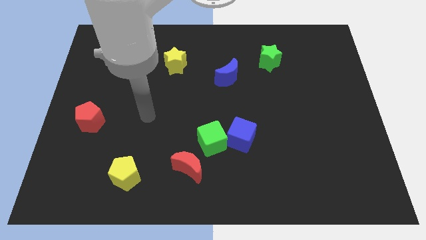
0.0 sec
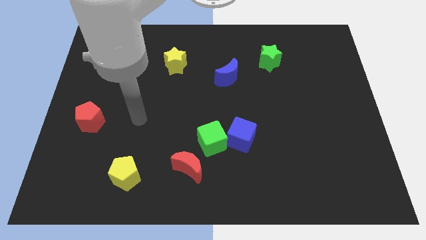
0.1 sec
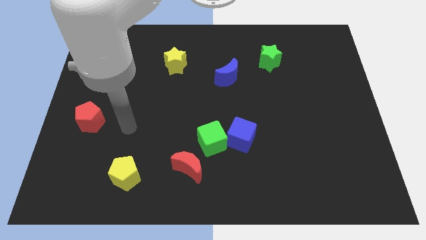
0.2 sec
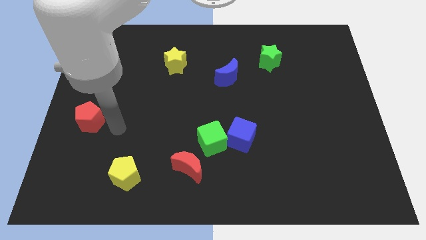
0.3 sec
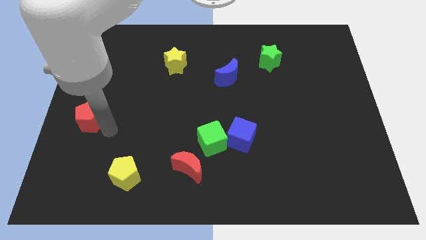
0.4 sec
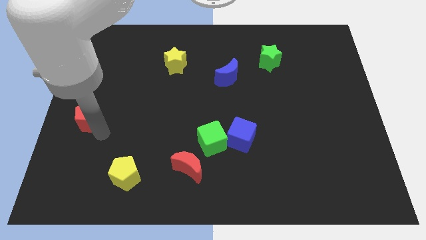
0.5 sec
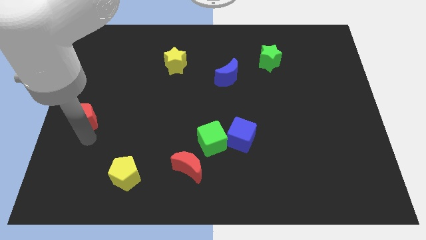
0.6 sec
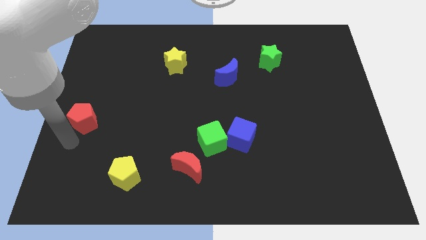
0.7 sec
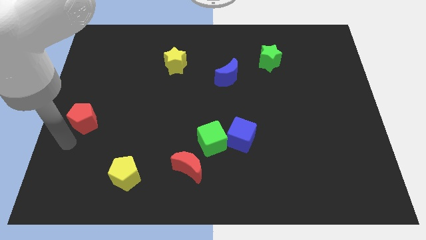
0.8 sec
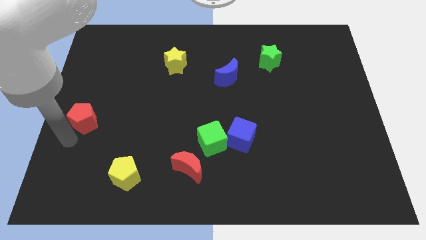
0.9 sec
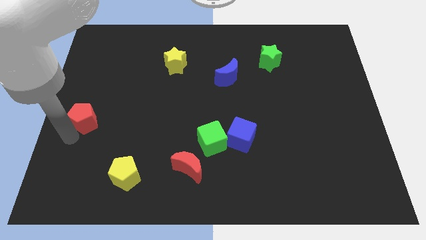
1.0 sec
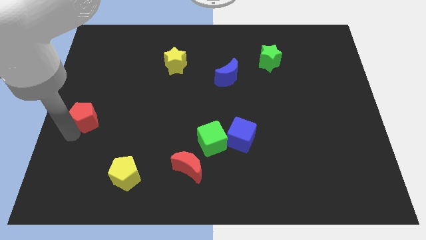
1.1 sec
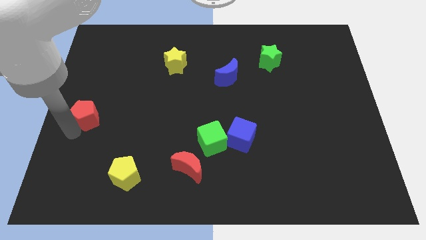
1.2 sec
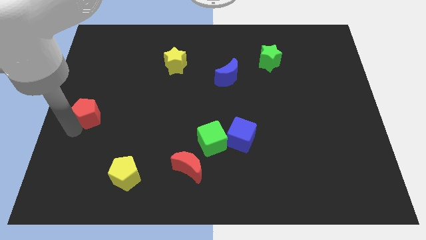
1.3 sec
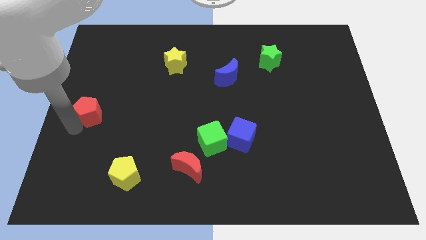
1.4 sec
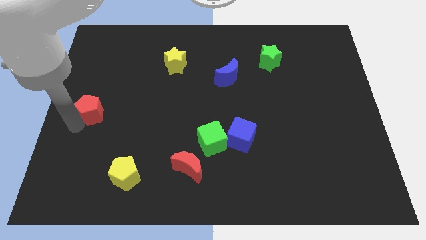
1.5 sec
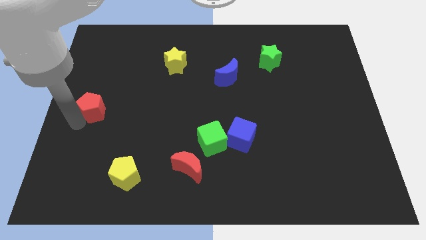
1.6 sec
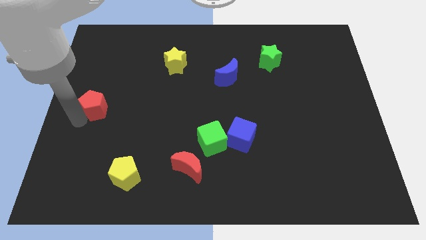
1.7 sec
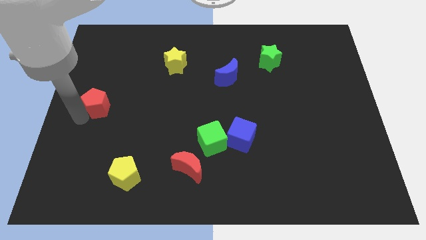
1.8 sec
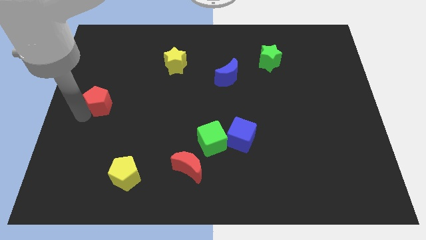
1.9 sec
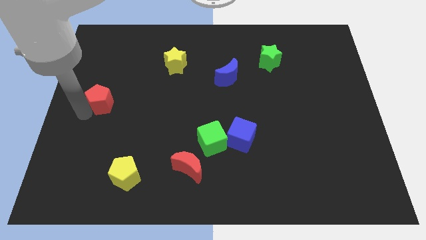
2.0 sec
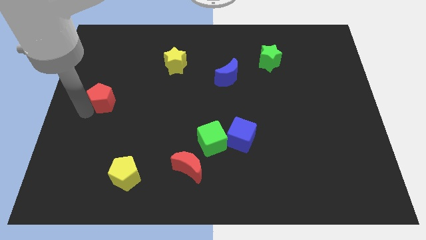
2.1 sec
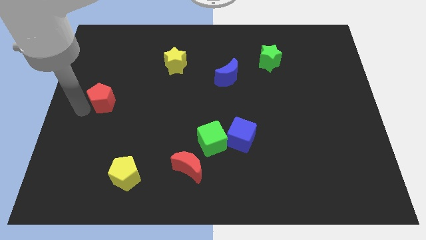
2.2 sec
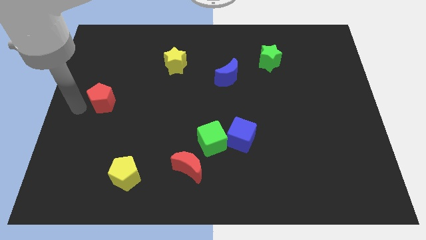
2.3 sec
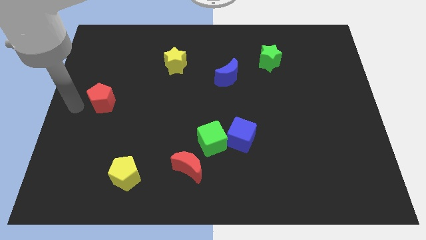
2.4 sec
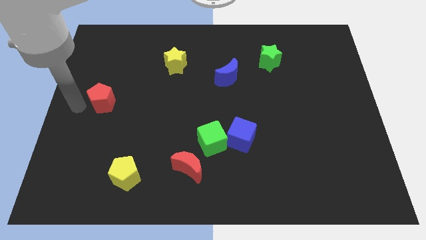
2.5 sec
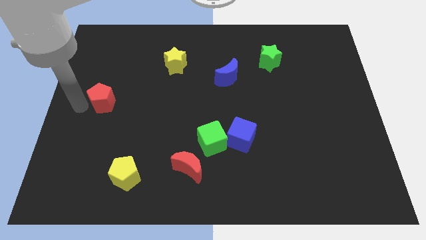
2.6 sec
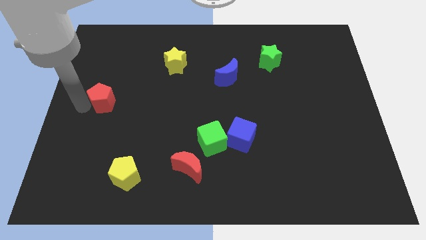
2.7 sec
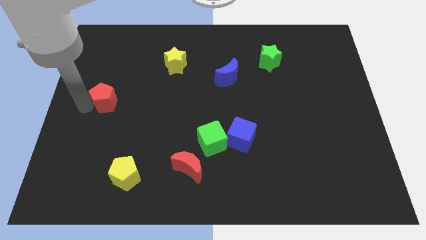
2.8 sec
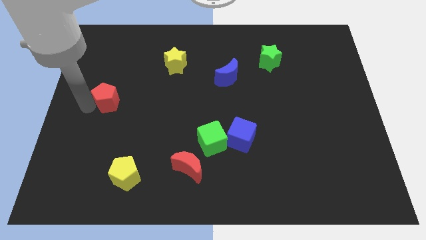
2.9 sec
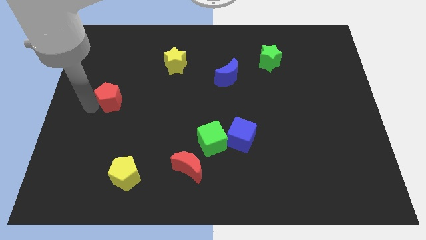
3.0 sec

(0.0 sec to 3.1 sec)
push the red pentagon a bit up and to the right

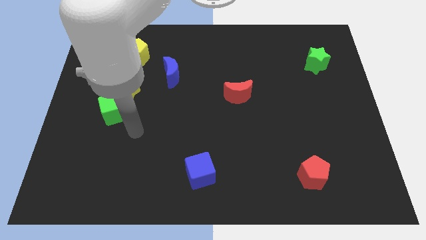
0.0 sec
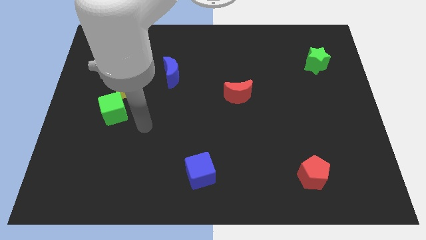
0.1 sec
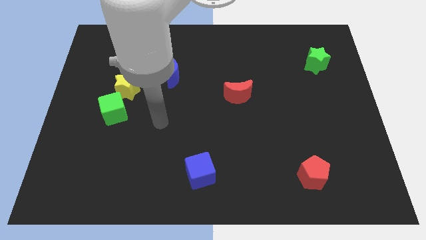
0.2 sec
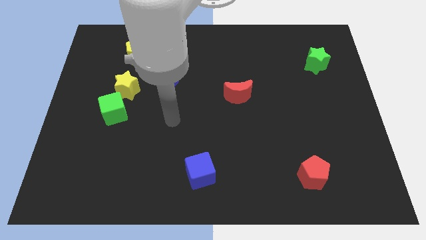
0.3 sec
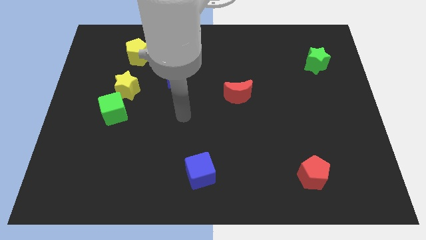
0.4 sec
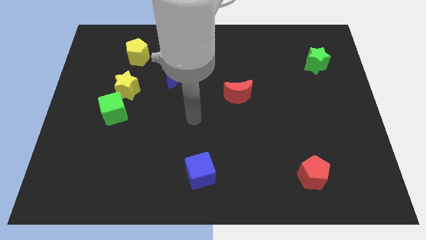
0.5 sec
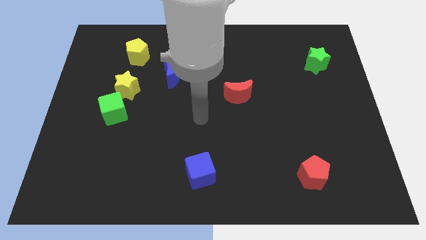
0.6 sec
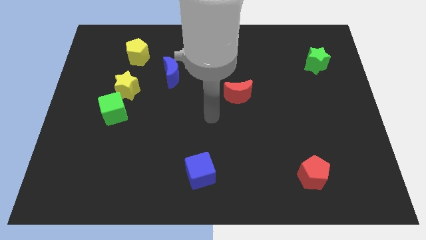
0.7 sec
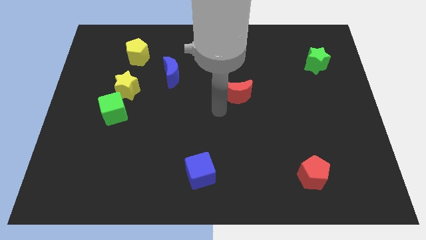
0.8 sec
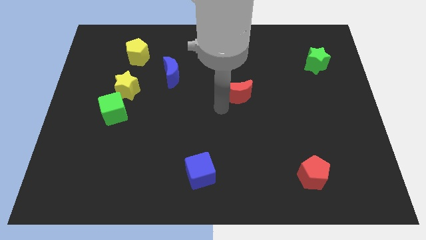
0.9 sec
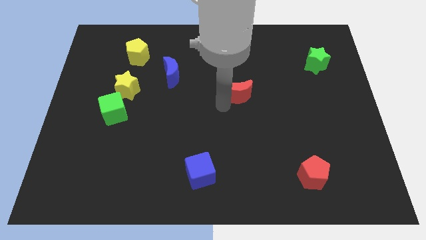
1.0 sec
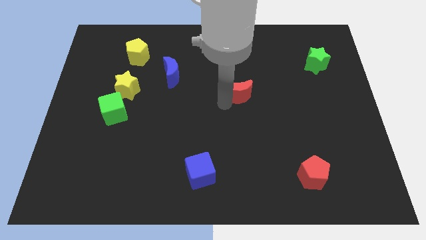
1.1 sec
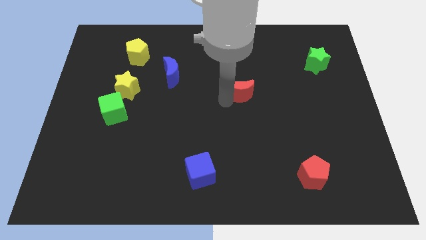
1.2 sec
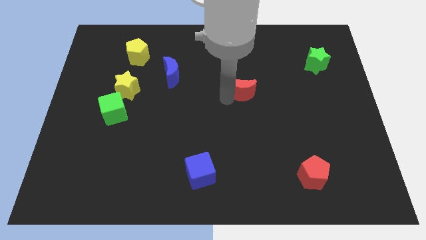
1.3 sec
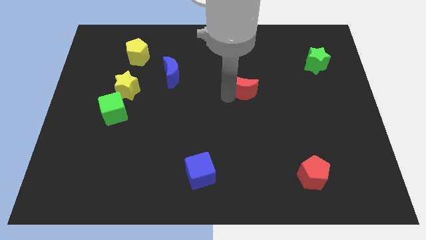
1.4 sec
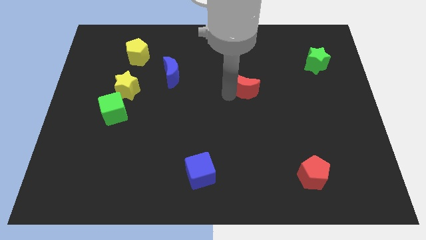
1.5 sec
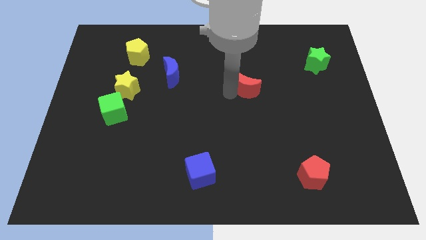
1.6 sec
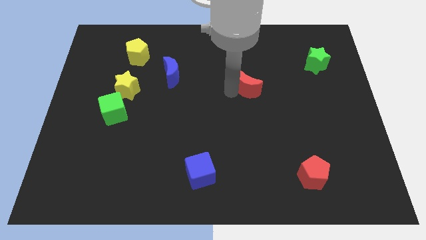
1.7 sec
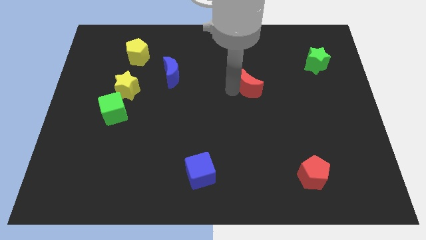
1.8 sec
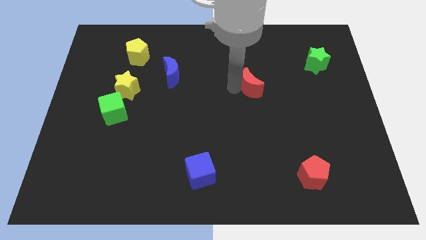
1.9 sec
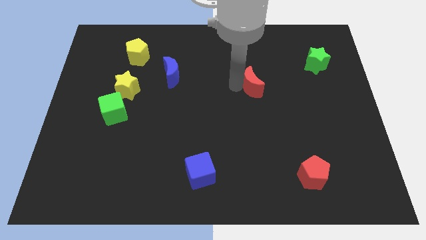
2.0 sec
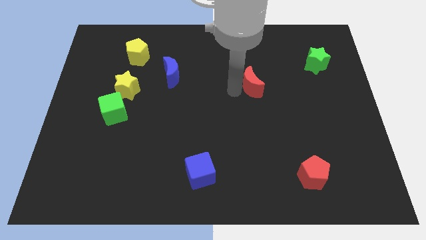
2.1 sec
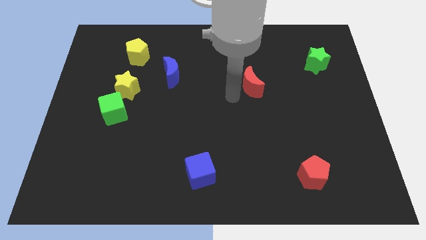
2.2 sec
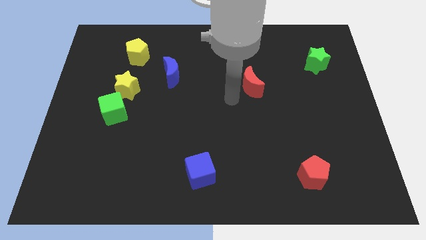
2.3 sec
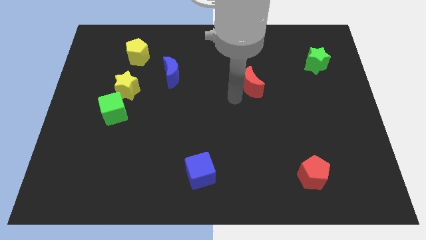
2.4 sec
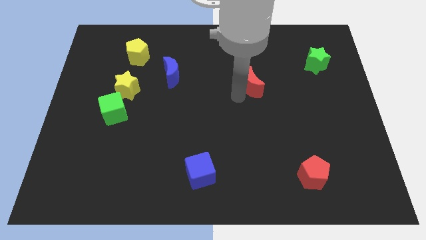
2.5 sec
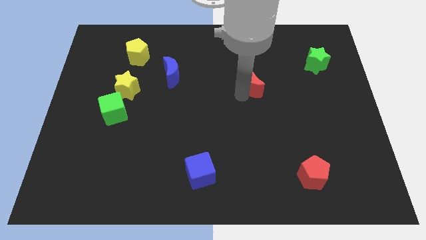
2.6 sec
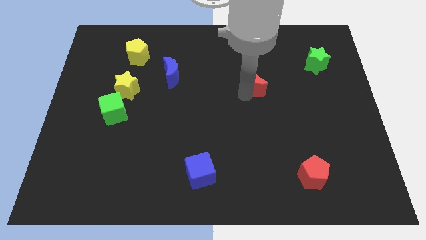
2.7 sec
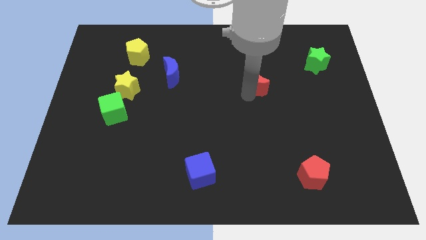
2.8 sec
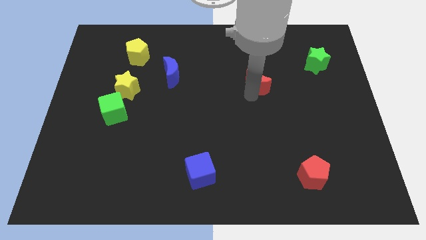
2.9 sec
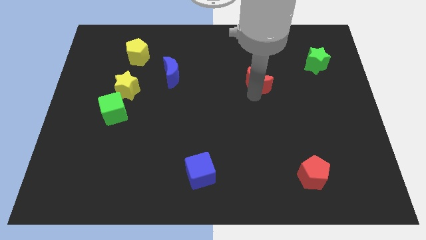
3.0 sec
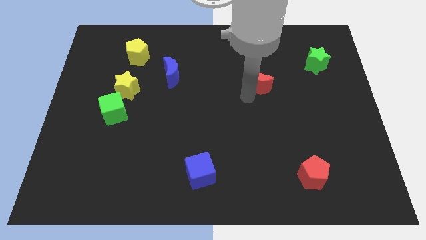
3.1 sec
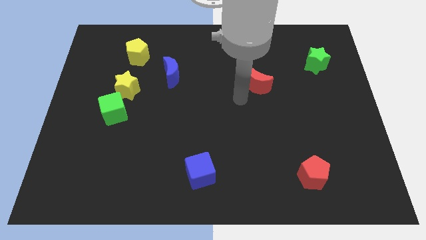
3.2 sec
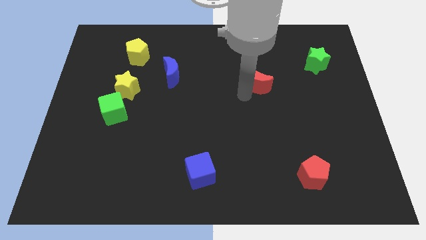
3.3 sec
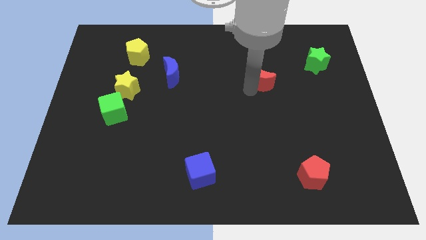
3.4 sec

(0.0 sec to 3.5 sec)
push the red moon upwards and to the right slightly

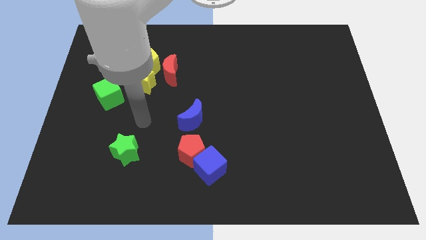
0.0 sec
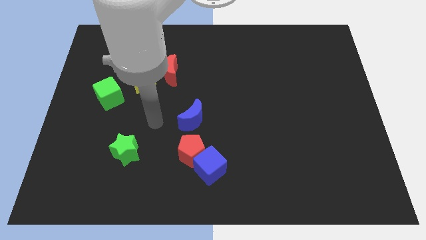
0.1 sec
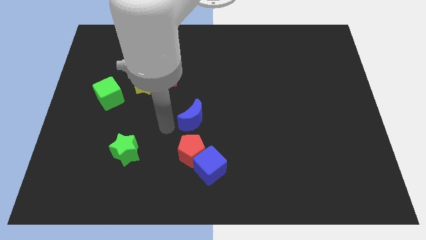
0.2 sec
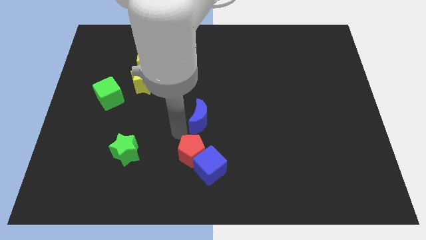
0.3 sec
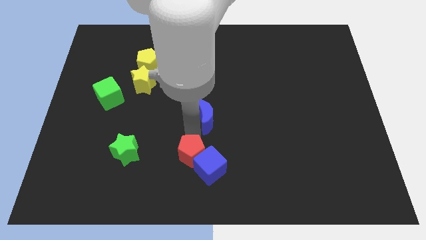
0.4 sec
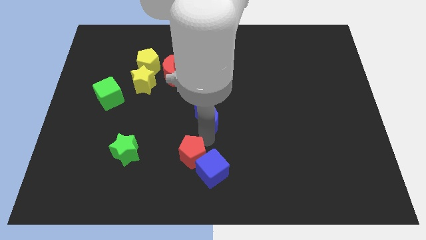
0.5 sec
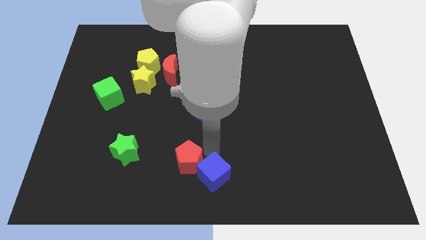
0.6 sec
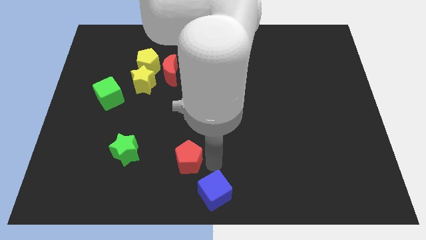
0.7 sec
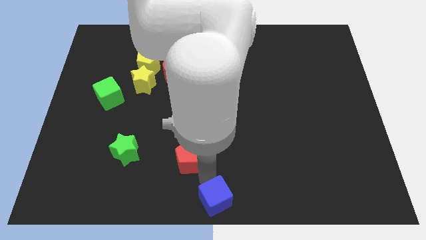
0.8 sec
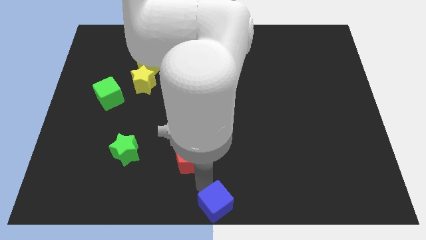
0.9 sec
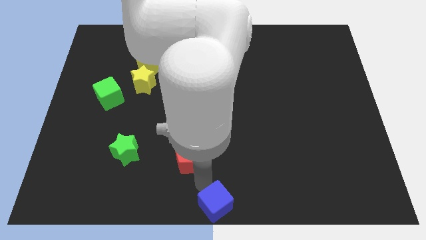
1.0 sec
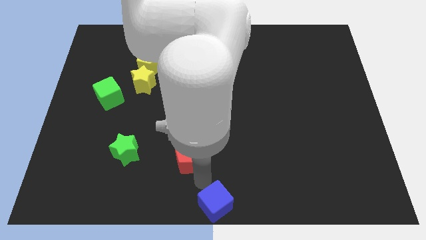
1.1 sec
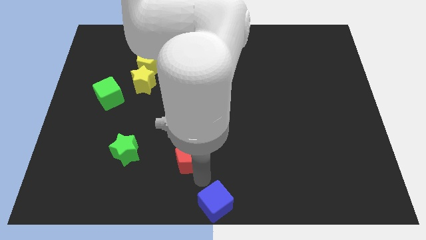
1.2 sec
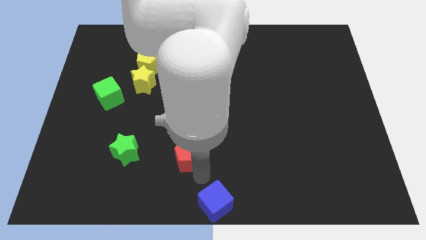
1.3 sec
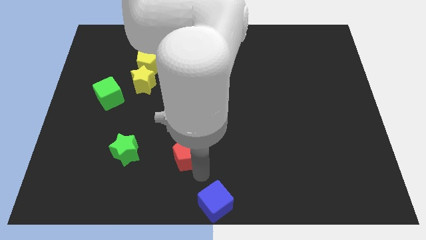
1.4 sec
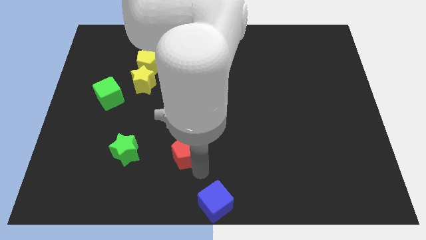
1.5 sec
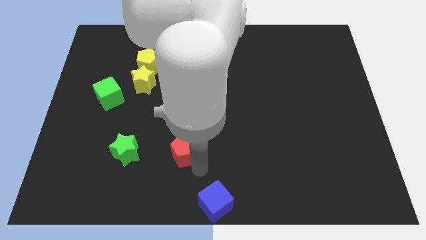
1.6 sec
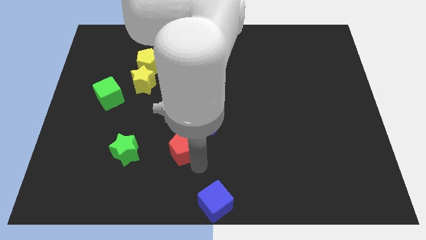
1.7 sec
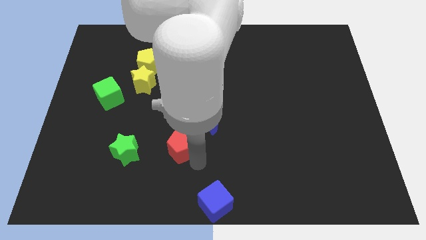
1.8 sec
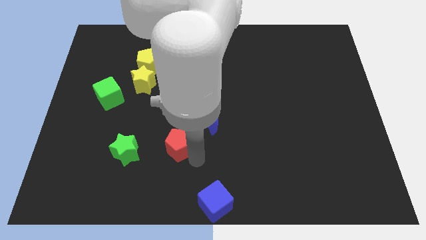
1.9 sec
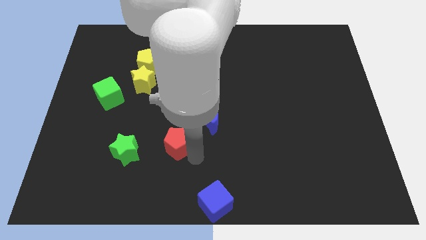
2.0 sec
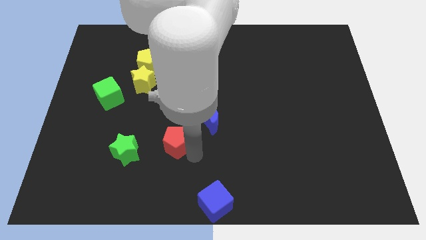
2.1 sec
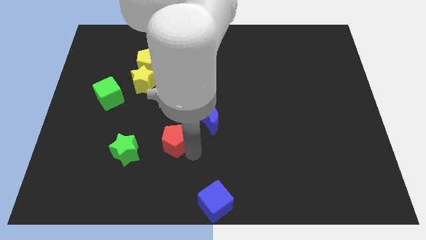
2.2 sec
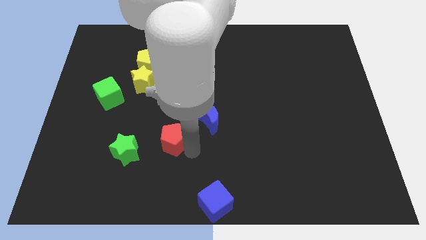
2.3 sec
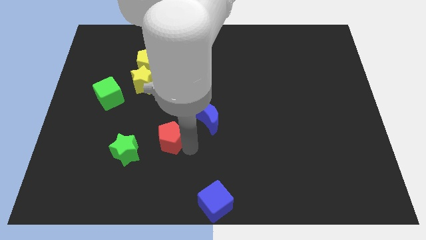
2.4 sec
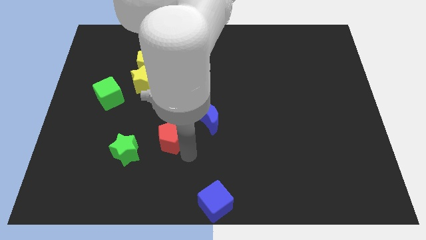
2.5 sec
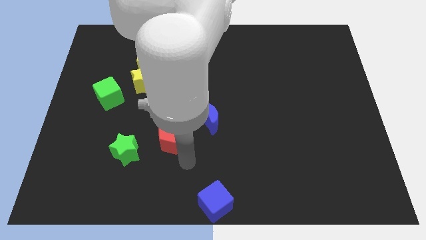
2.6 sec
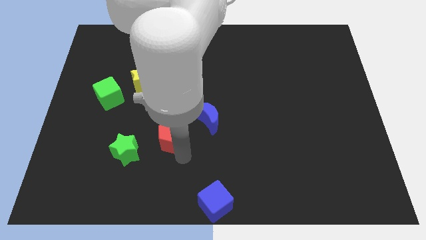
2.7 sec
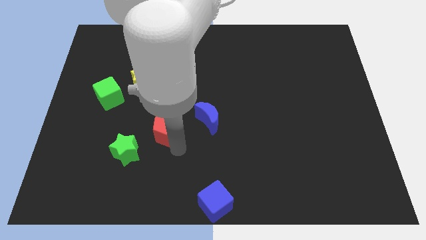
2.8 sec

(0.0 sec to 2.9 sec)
slightly move the red pentagon upwards and to the left
